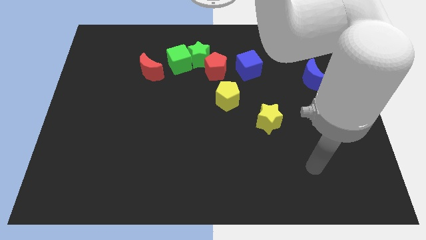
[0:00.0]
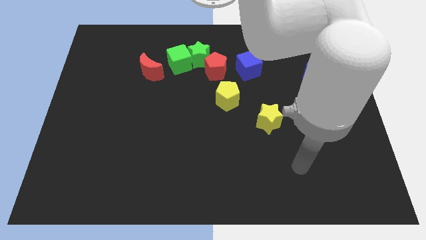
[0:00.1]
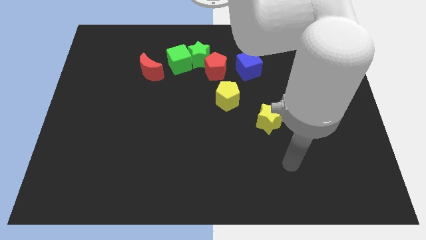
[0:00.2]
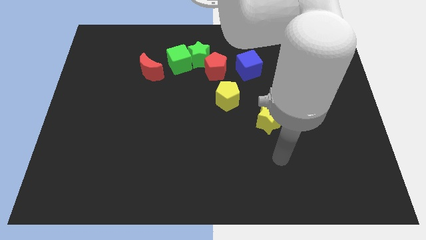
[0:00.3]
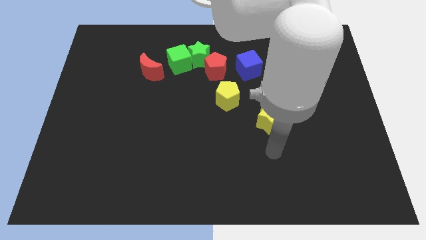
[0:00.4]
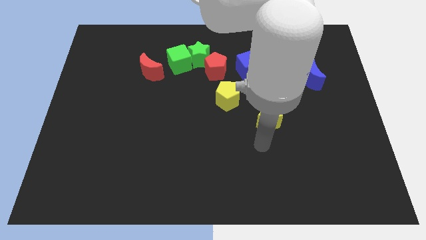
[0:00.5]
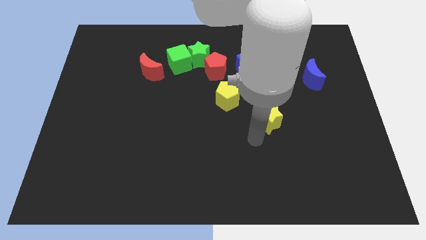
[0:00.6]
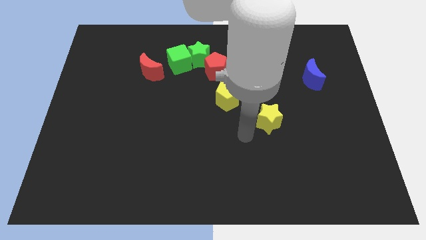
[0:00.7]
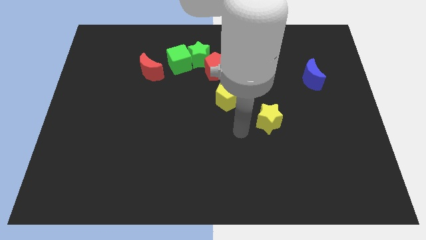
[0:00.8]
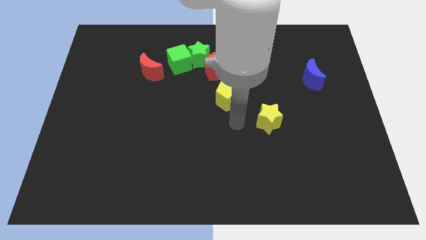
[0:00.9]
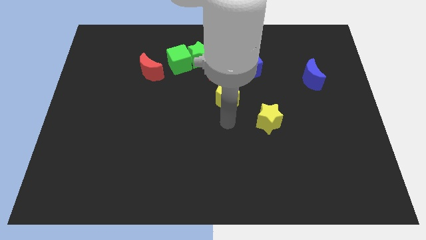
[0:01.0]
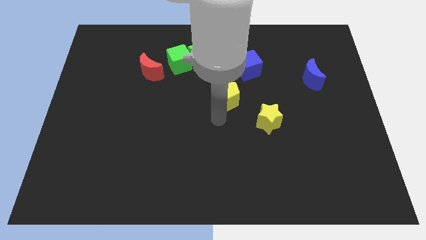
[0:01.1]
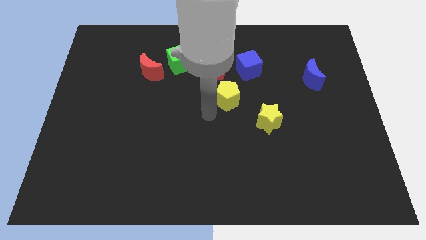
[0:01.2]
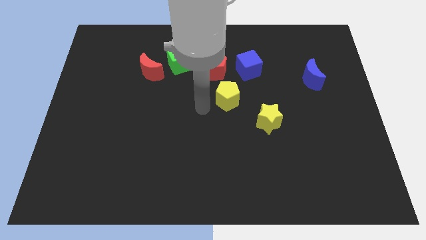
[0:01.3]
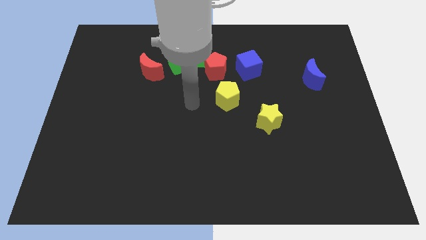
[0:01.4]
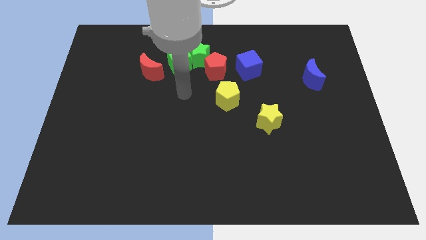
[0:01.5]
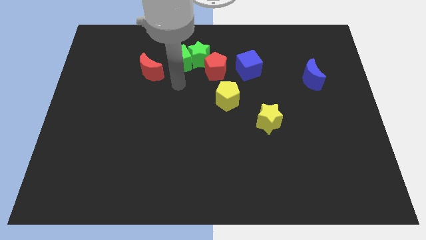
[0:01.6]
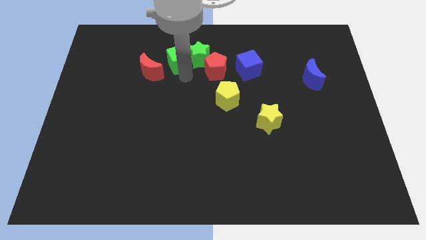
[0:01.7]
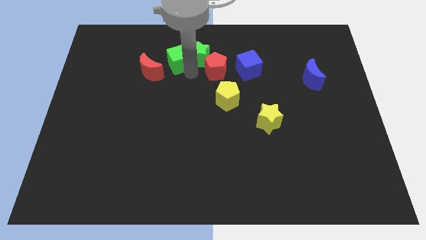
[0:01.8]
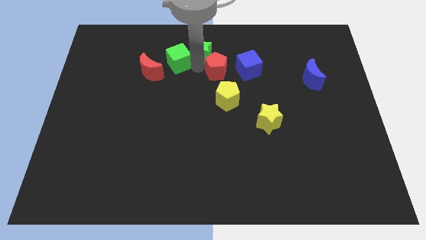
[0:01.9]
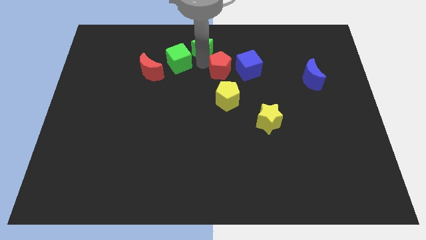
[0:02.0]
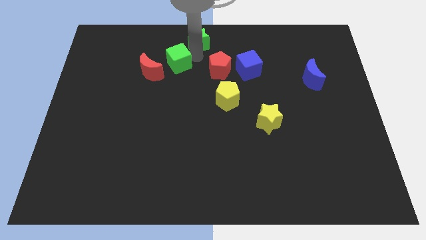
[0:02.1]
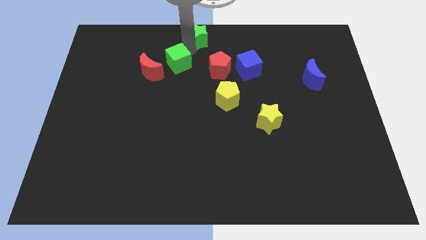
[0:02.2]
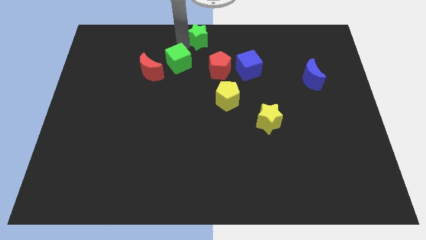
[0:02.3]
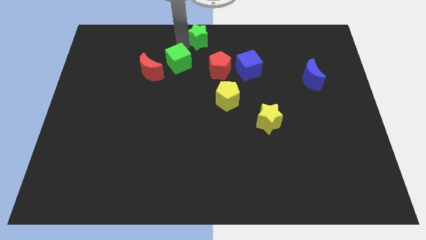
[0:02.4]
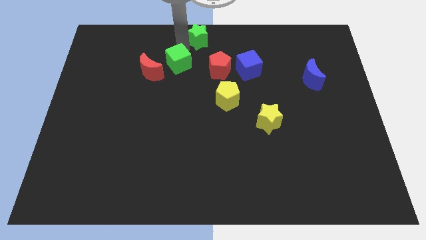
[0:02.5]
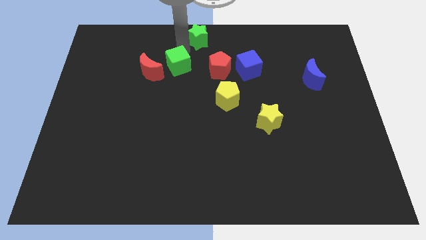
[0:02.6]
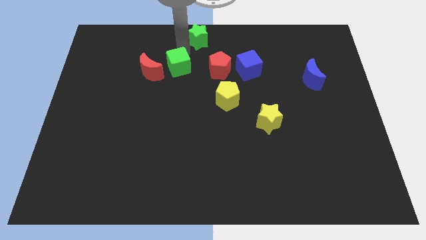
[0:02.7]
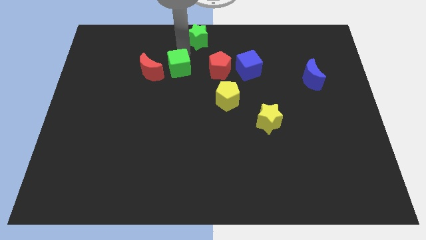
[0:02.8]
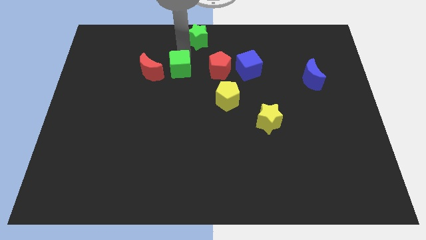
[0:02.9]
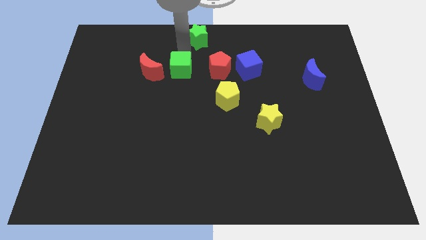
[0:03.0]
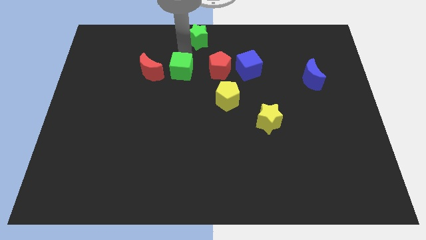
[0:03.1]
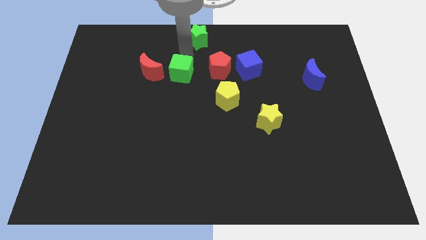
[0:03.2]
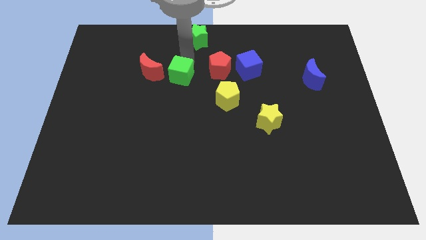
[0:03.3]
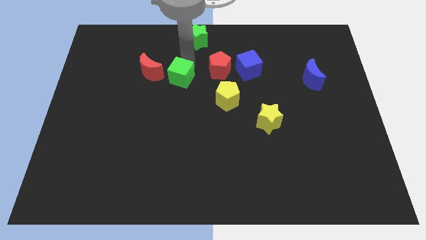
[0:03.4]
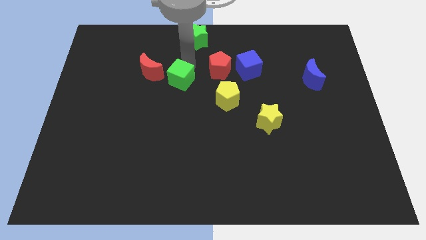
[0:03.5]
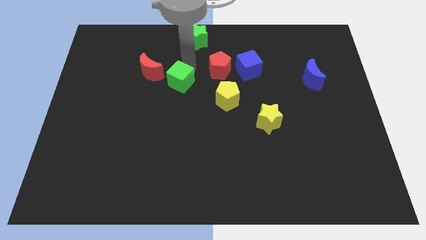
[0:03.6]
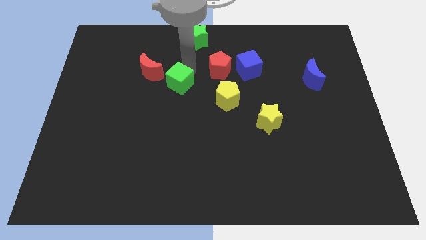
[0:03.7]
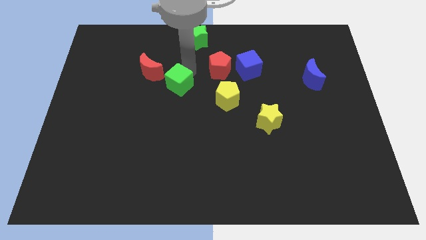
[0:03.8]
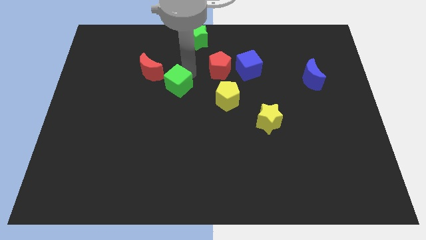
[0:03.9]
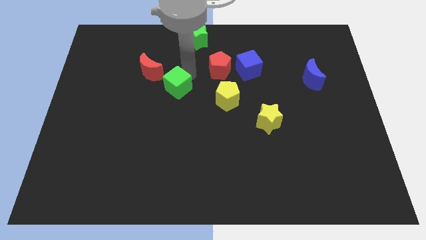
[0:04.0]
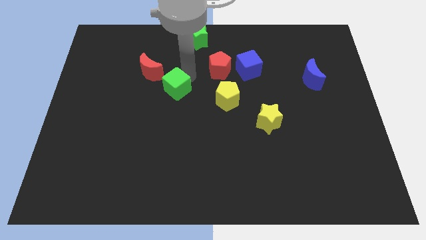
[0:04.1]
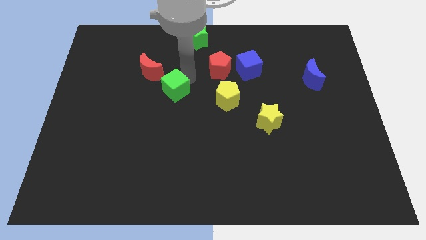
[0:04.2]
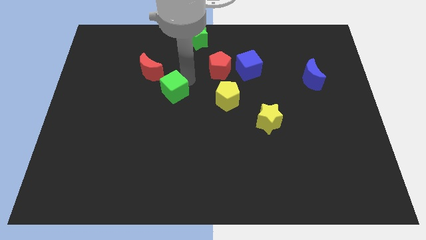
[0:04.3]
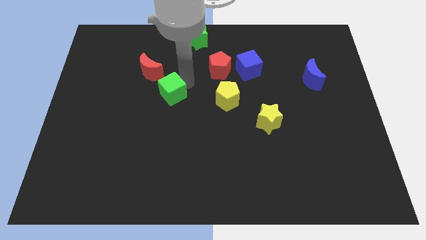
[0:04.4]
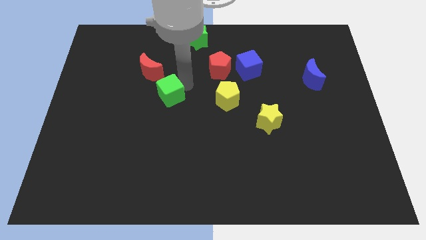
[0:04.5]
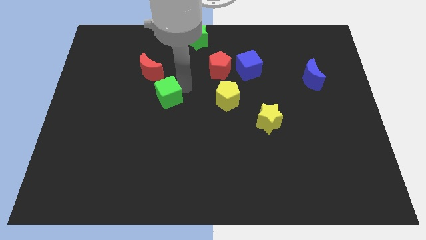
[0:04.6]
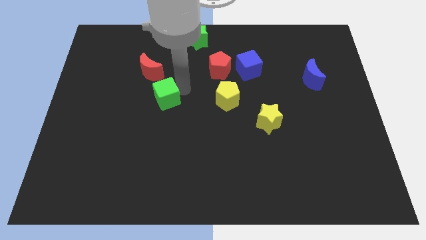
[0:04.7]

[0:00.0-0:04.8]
push the green cube to the bottom side of the red moon

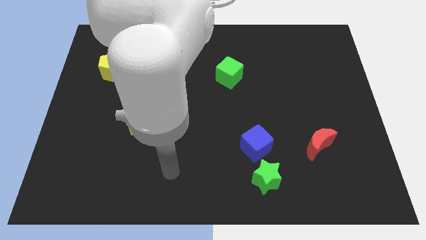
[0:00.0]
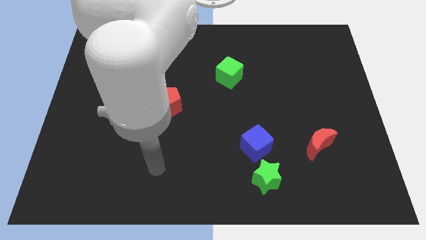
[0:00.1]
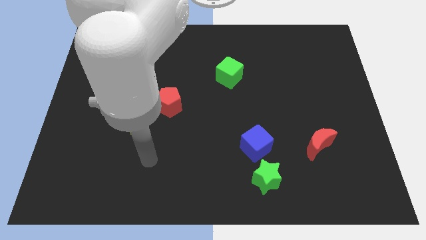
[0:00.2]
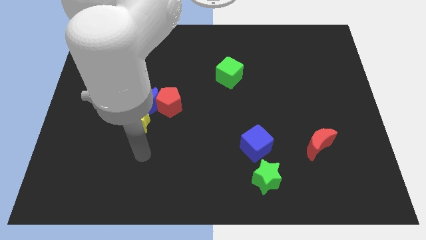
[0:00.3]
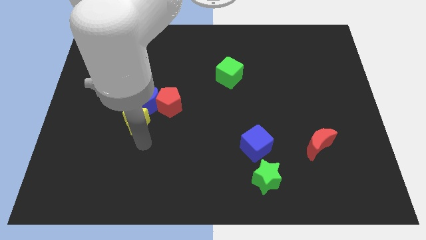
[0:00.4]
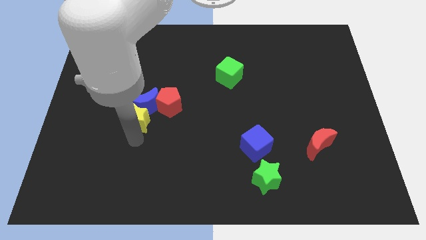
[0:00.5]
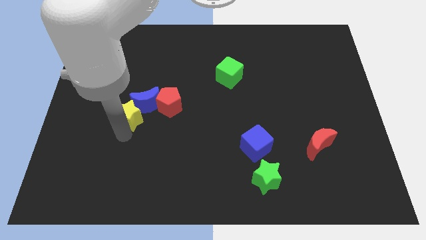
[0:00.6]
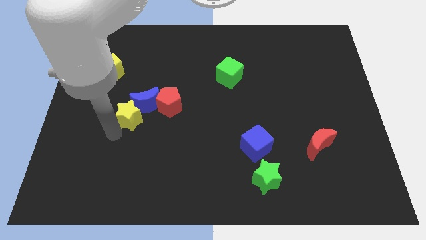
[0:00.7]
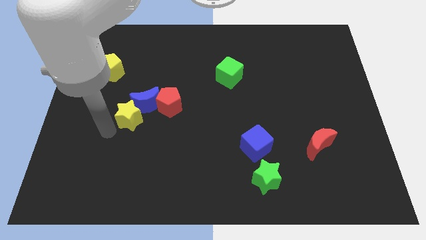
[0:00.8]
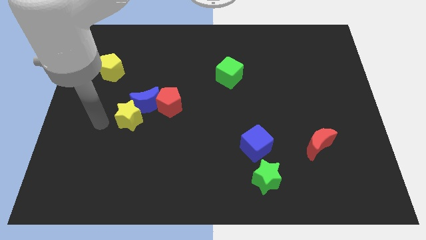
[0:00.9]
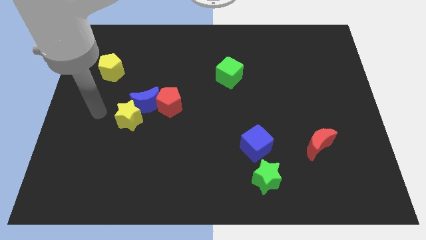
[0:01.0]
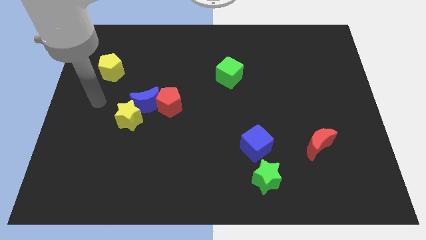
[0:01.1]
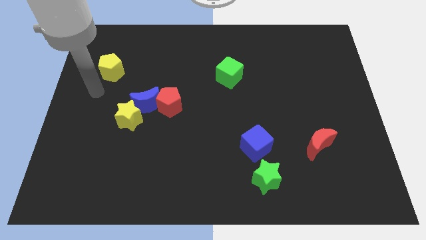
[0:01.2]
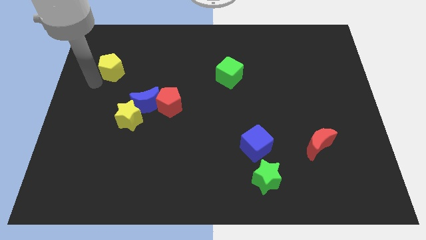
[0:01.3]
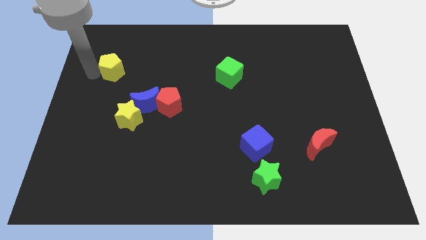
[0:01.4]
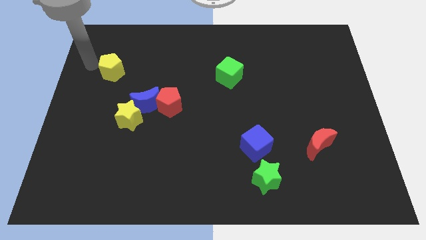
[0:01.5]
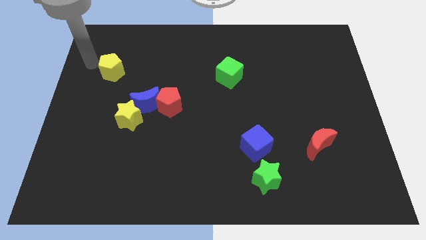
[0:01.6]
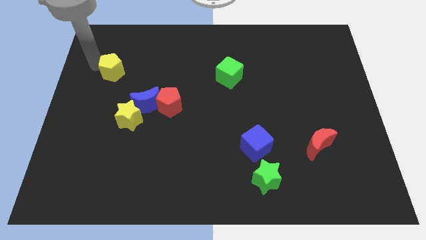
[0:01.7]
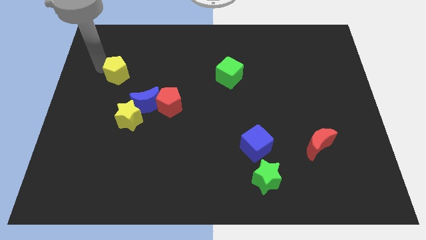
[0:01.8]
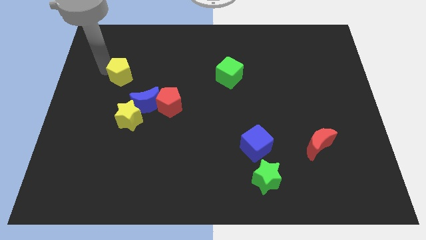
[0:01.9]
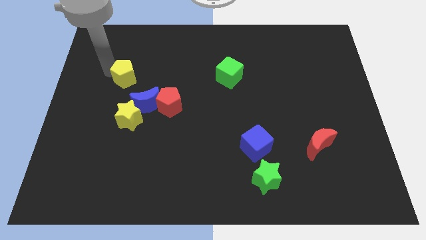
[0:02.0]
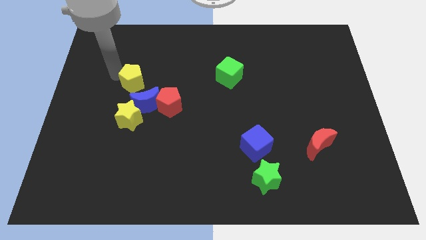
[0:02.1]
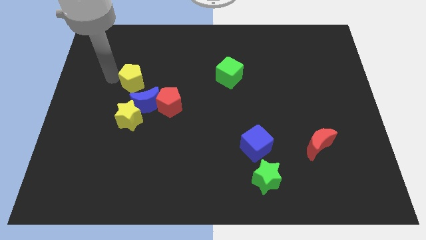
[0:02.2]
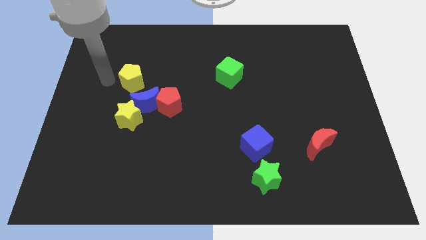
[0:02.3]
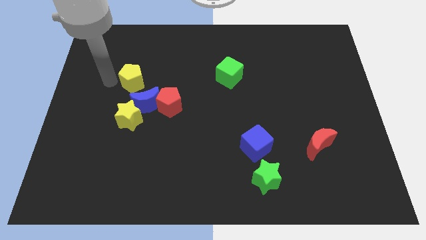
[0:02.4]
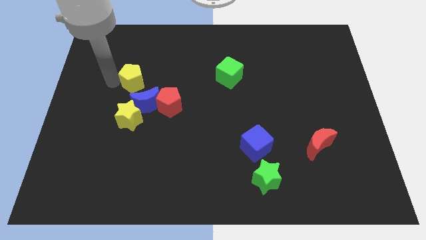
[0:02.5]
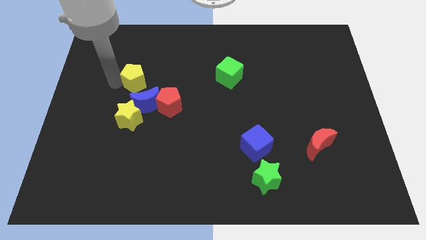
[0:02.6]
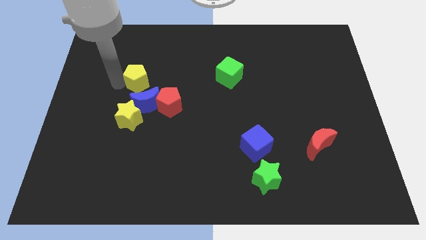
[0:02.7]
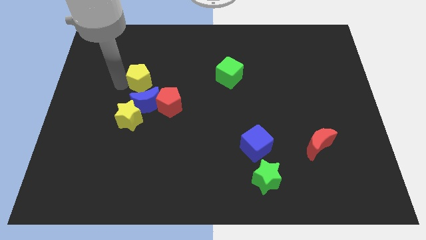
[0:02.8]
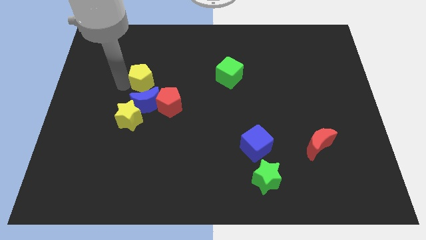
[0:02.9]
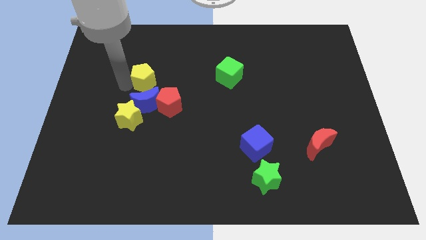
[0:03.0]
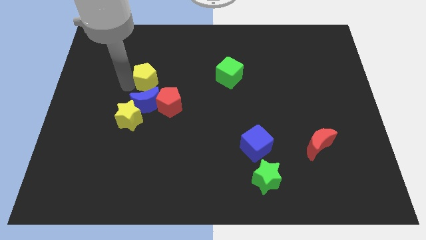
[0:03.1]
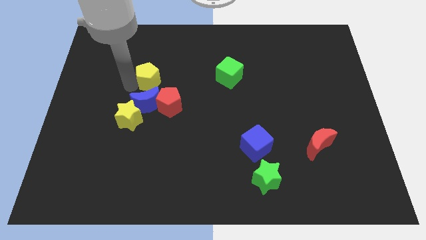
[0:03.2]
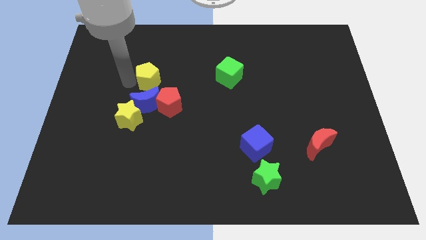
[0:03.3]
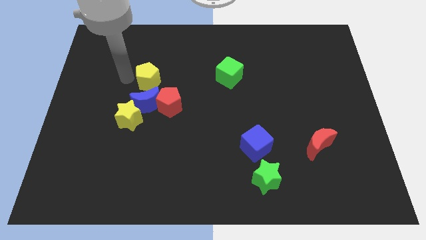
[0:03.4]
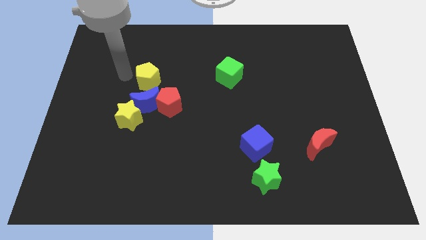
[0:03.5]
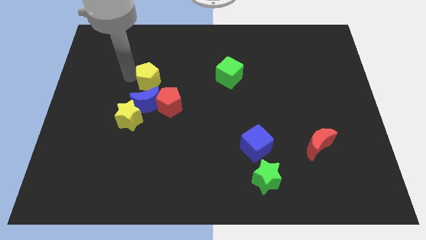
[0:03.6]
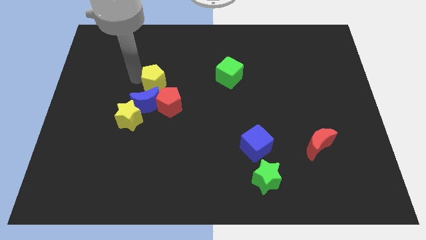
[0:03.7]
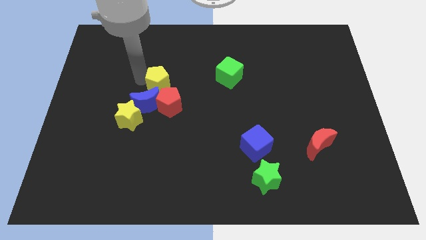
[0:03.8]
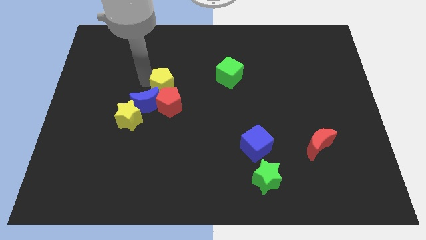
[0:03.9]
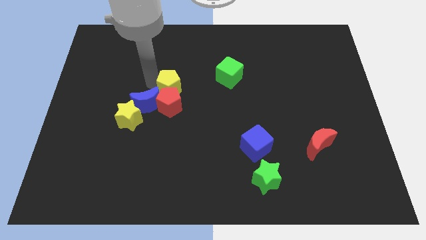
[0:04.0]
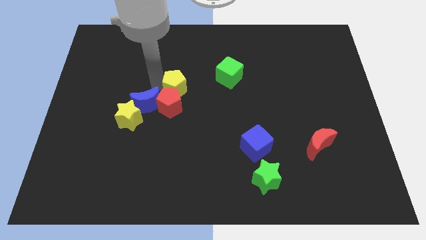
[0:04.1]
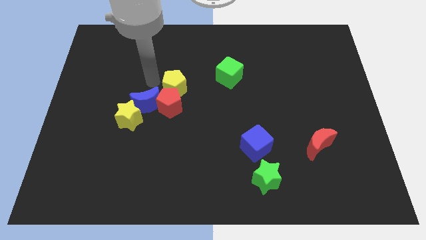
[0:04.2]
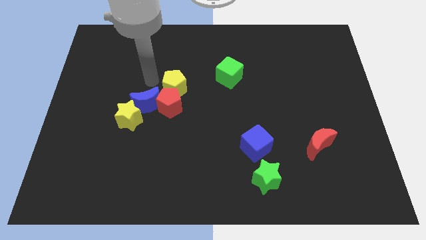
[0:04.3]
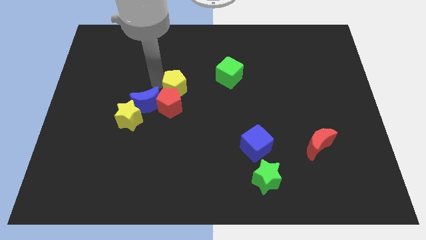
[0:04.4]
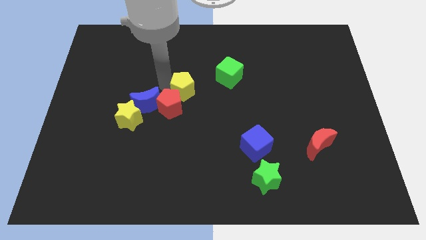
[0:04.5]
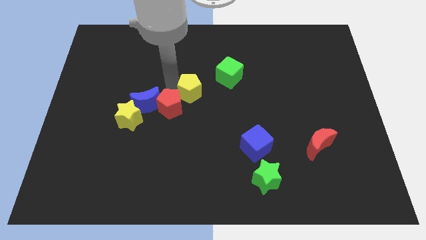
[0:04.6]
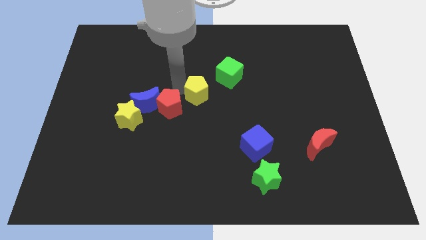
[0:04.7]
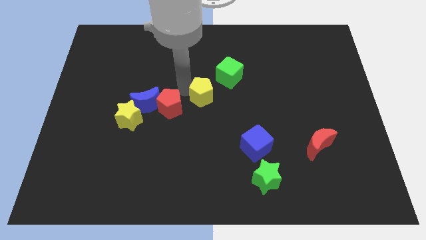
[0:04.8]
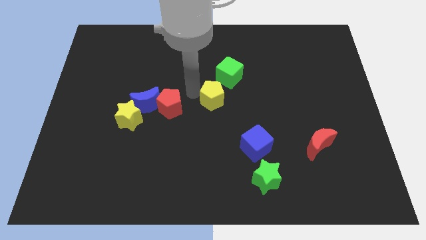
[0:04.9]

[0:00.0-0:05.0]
put the yellow pentagon to the bottom side of the green cube
